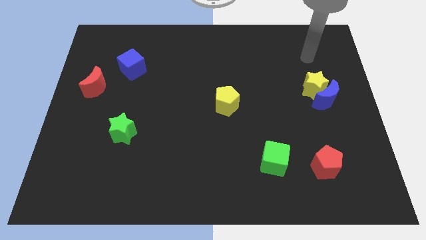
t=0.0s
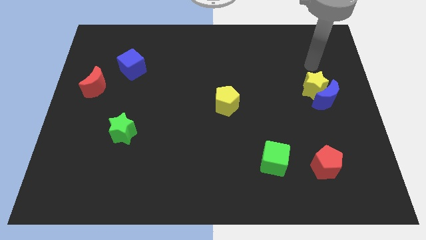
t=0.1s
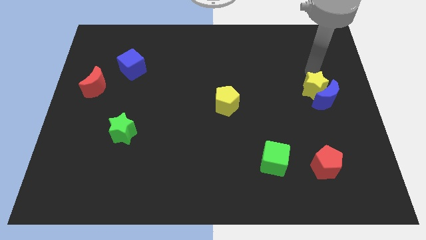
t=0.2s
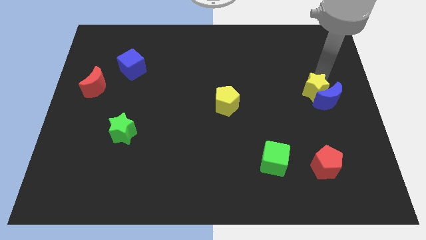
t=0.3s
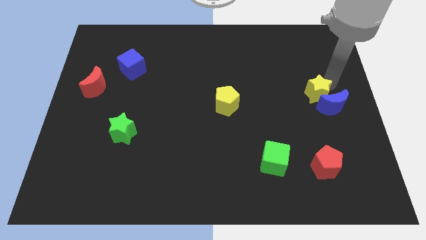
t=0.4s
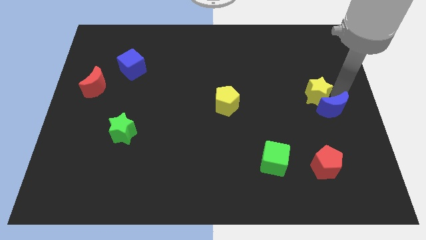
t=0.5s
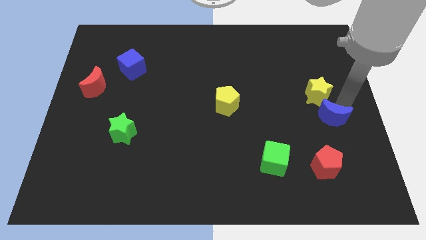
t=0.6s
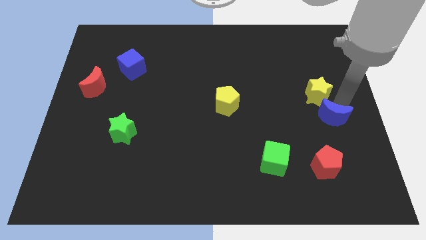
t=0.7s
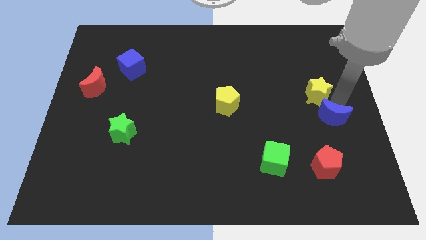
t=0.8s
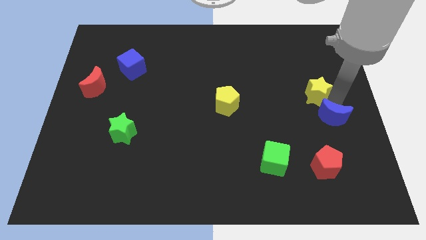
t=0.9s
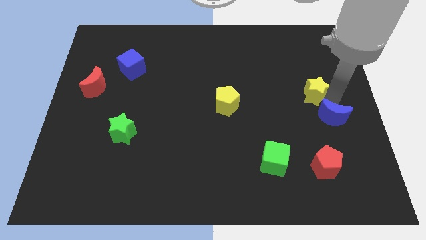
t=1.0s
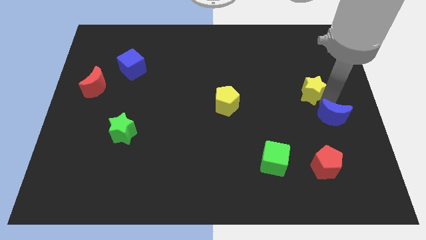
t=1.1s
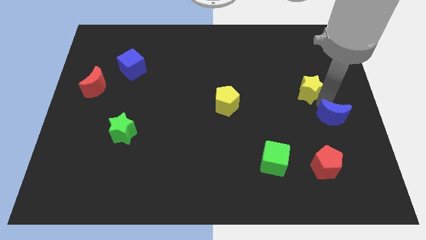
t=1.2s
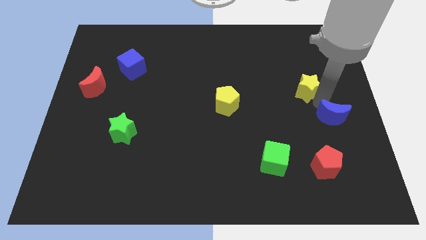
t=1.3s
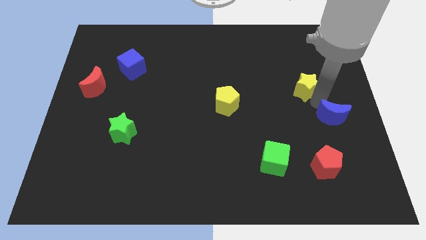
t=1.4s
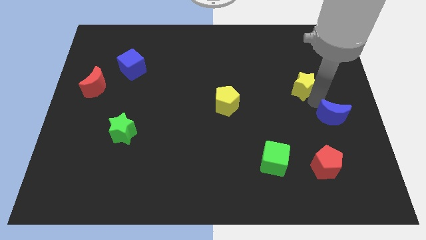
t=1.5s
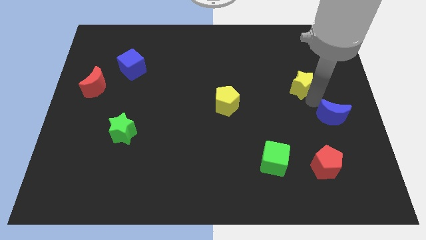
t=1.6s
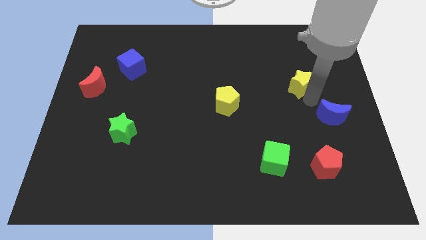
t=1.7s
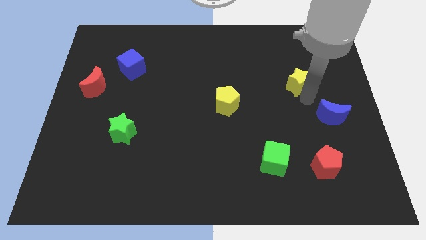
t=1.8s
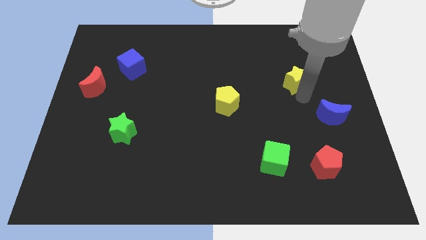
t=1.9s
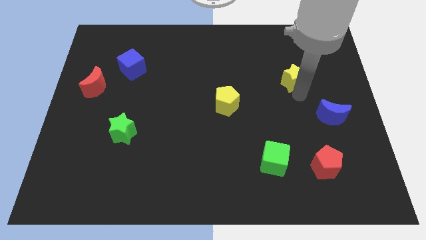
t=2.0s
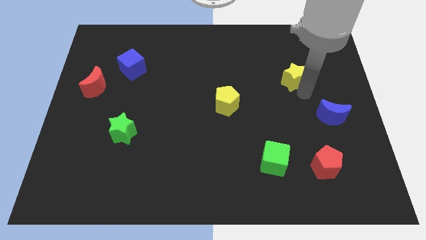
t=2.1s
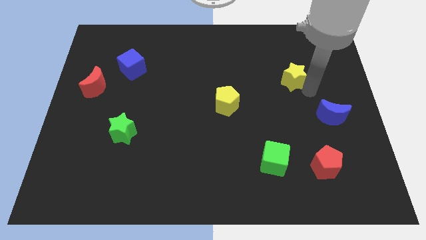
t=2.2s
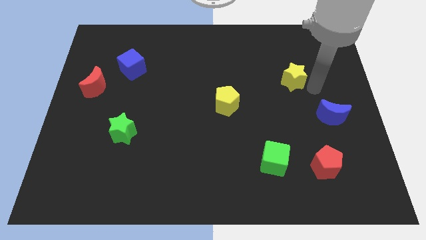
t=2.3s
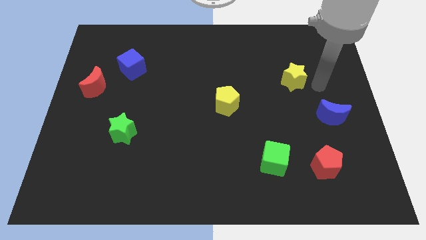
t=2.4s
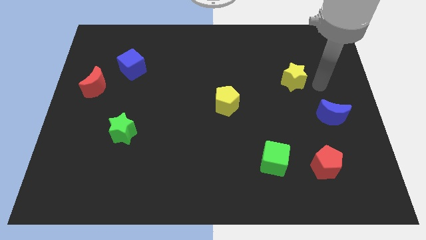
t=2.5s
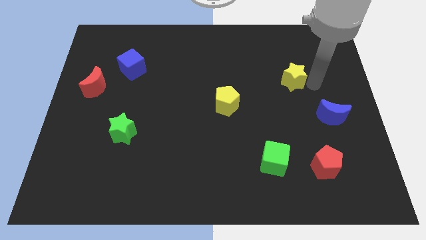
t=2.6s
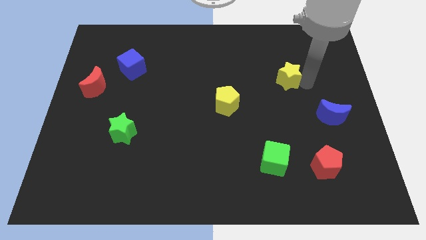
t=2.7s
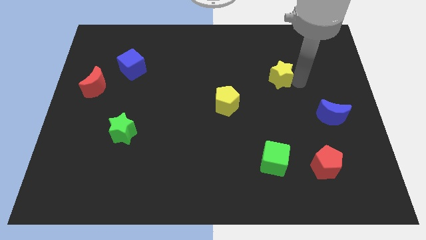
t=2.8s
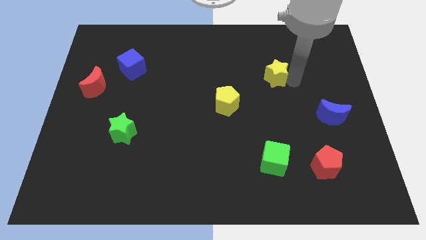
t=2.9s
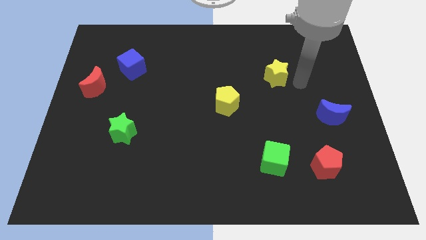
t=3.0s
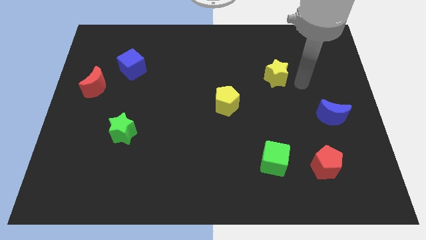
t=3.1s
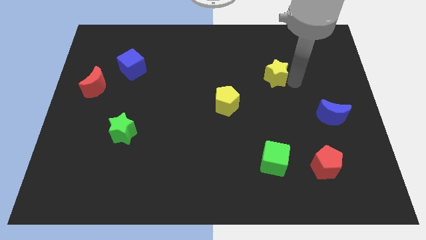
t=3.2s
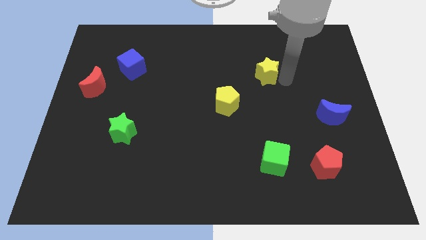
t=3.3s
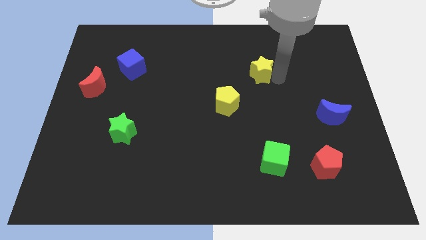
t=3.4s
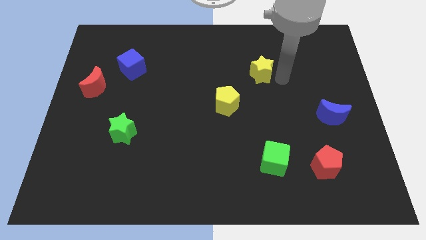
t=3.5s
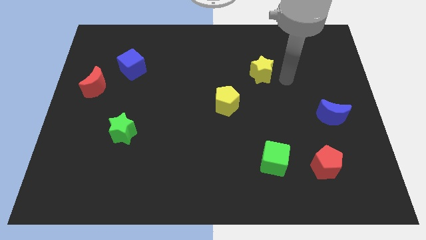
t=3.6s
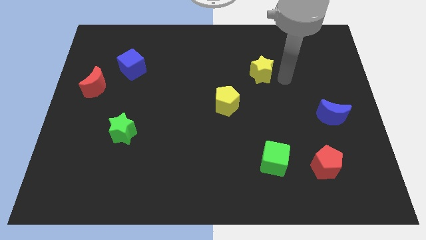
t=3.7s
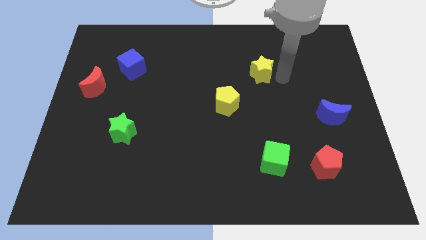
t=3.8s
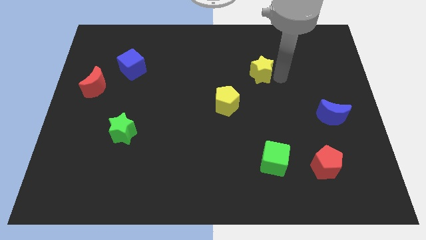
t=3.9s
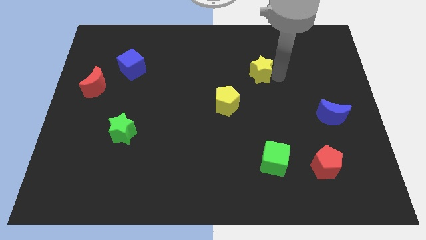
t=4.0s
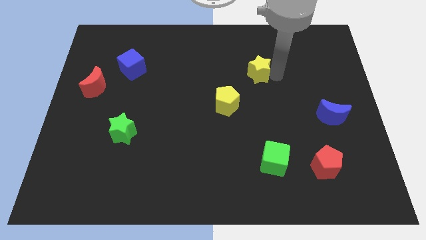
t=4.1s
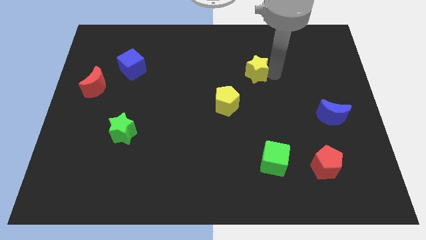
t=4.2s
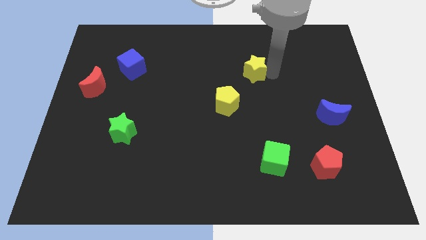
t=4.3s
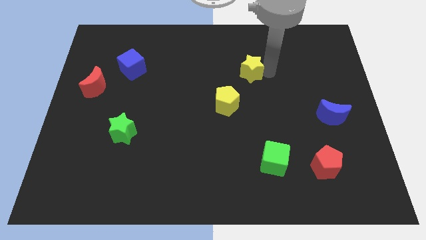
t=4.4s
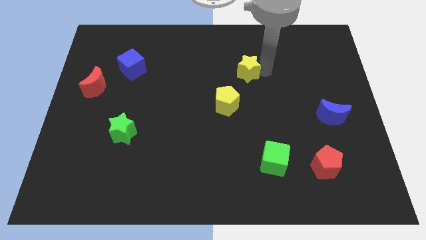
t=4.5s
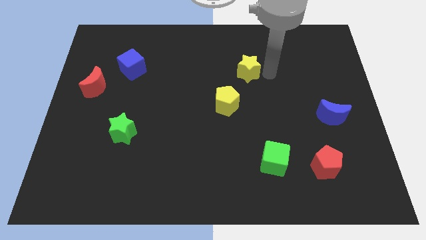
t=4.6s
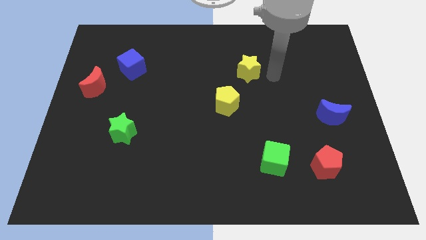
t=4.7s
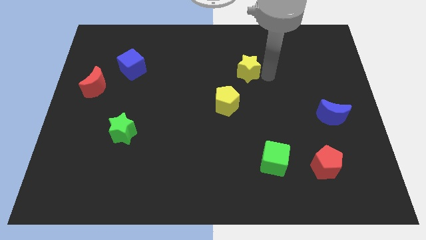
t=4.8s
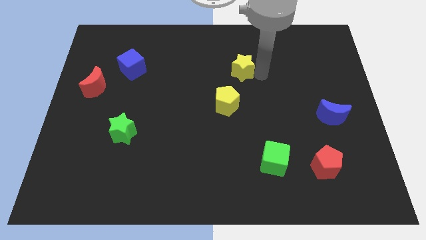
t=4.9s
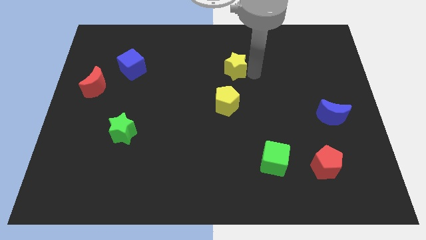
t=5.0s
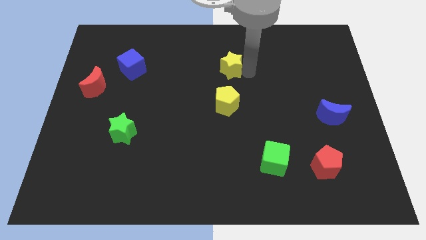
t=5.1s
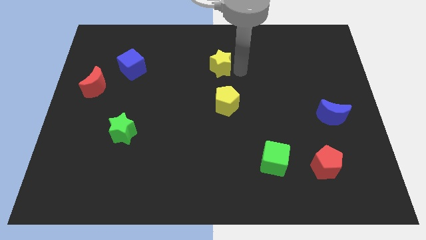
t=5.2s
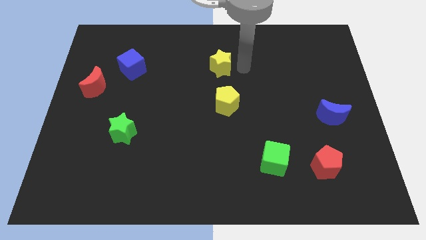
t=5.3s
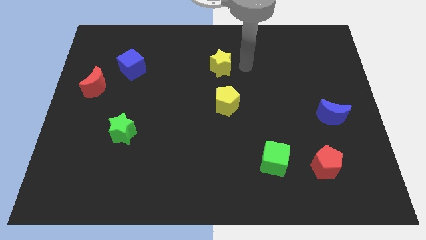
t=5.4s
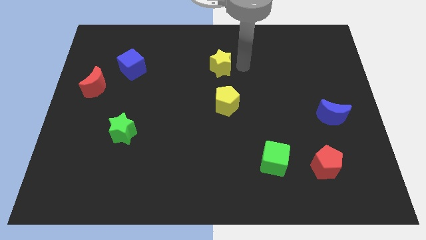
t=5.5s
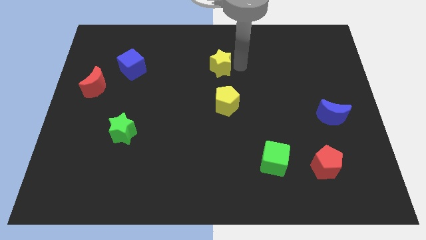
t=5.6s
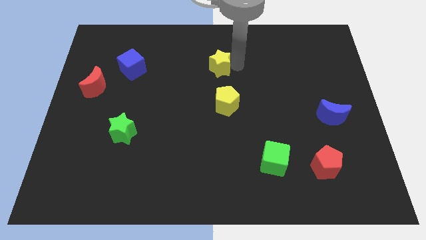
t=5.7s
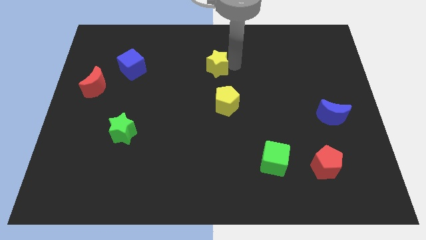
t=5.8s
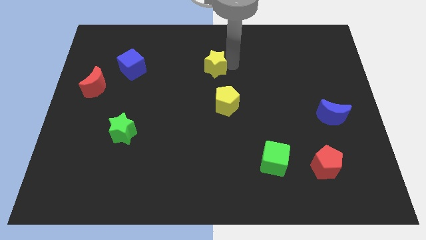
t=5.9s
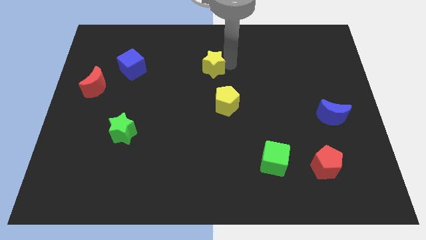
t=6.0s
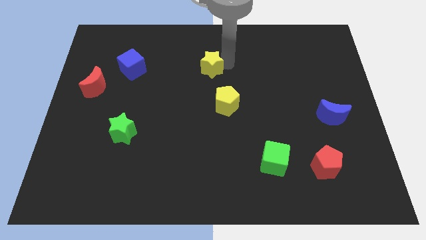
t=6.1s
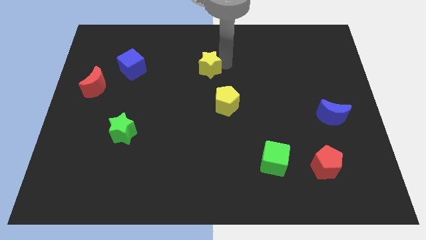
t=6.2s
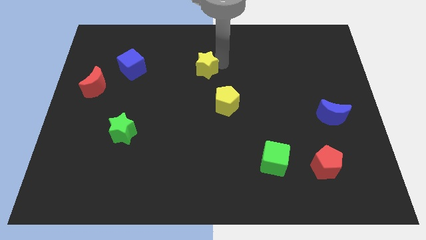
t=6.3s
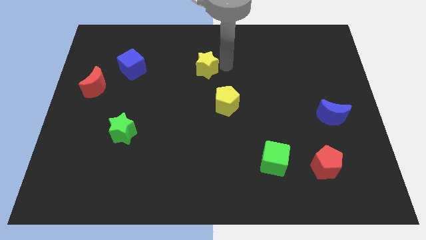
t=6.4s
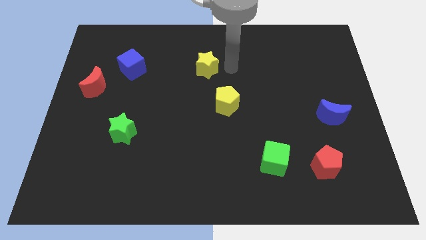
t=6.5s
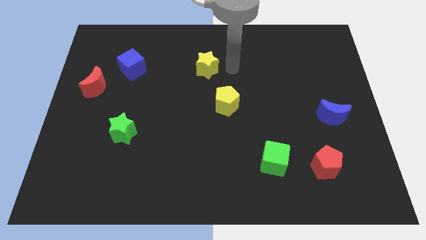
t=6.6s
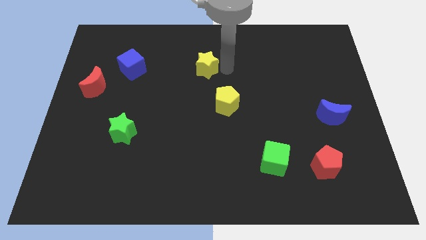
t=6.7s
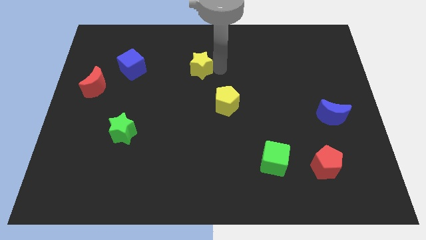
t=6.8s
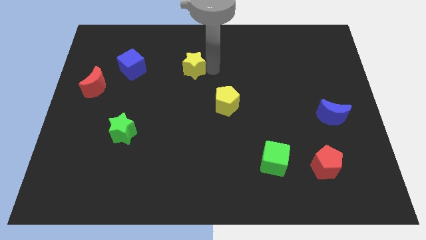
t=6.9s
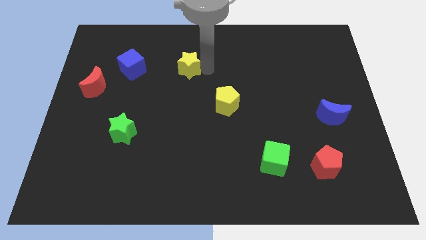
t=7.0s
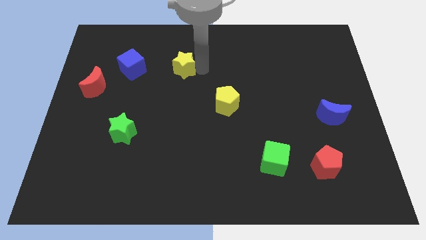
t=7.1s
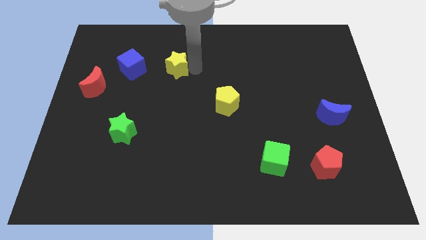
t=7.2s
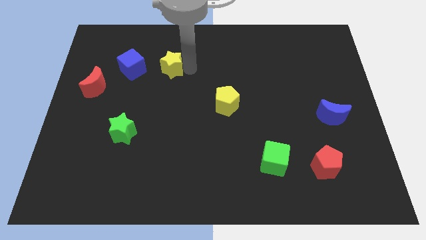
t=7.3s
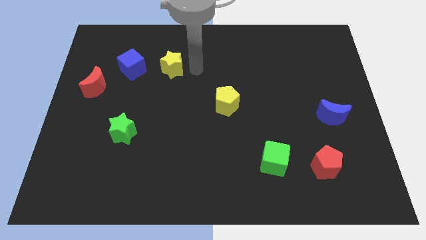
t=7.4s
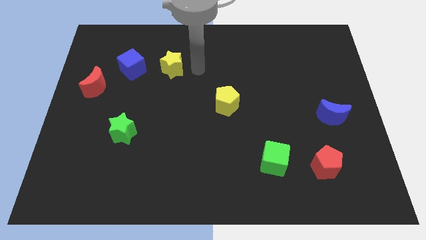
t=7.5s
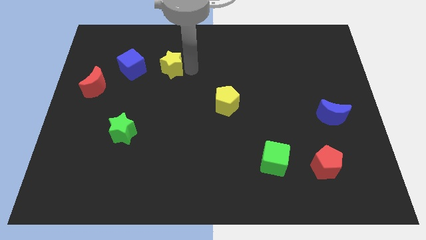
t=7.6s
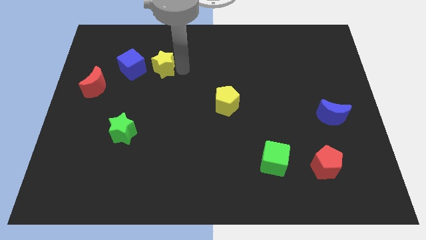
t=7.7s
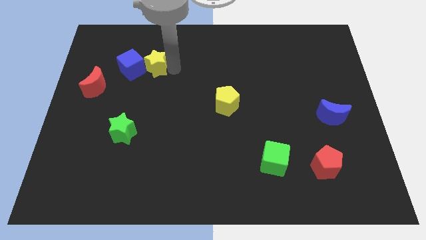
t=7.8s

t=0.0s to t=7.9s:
move the yellow star to the blue cube
